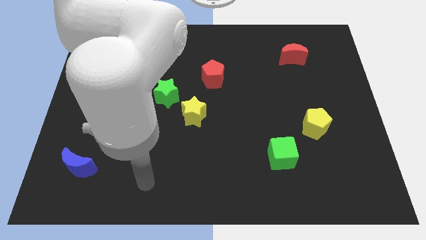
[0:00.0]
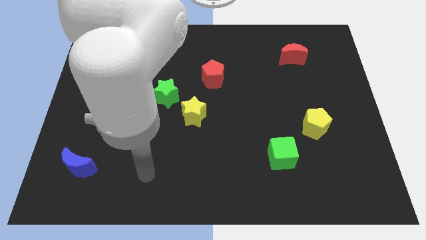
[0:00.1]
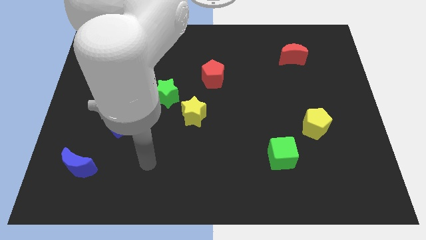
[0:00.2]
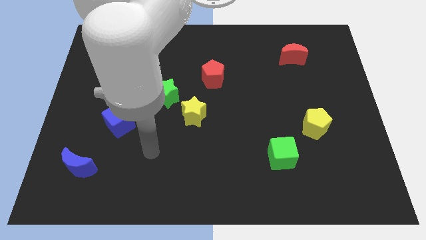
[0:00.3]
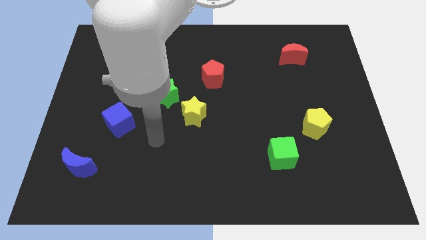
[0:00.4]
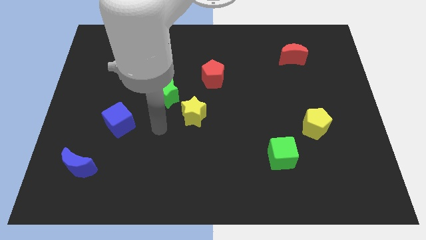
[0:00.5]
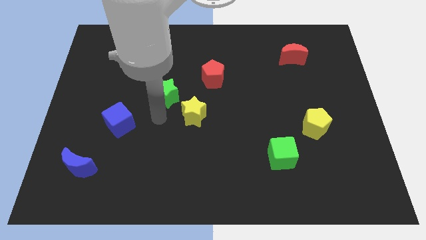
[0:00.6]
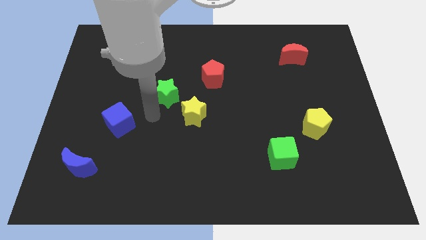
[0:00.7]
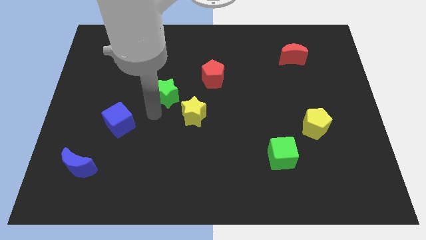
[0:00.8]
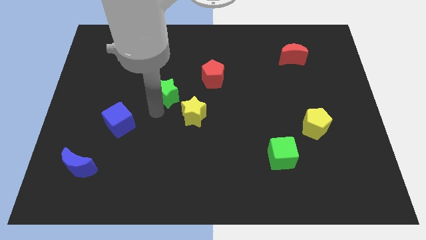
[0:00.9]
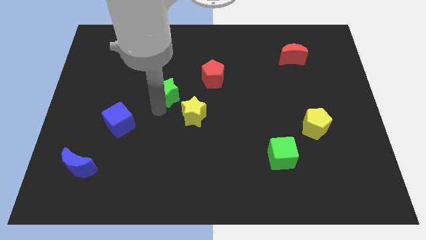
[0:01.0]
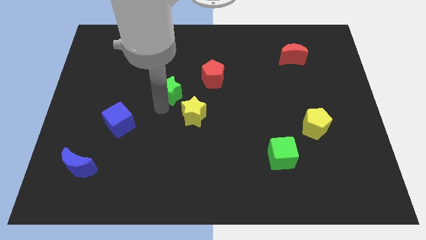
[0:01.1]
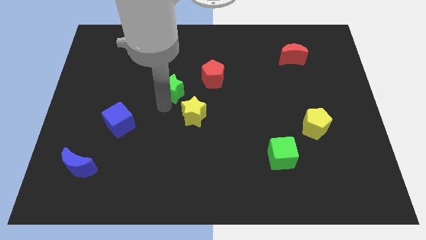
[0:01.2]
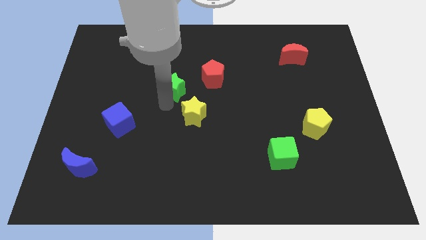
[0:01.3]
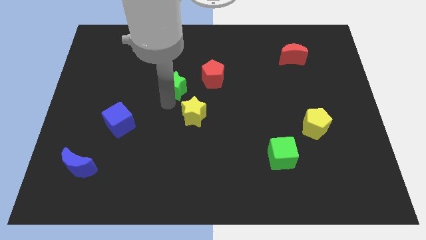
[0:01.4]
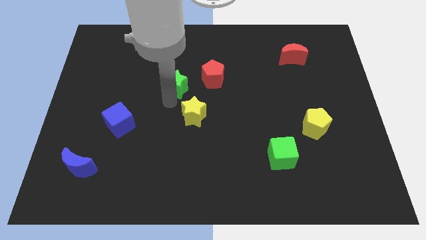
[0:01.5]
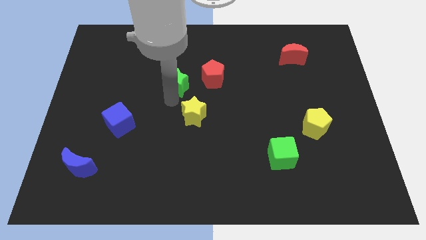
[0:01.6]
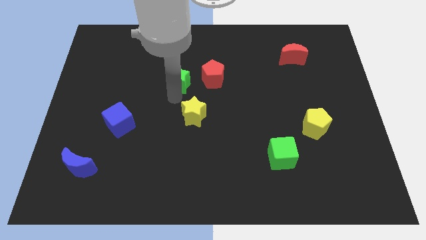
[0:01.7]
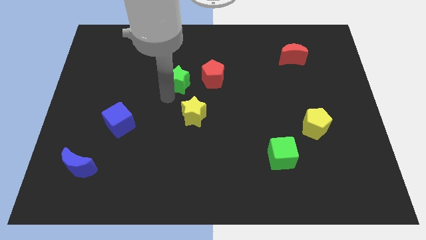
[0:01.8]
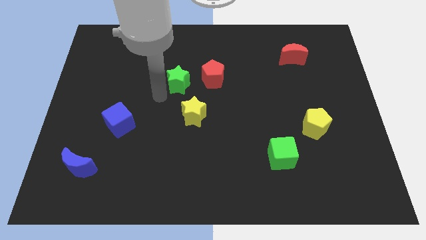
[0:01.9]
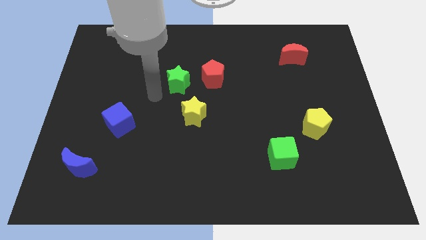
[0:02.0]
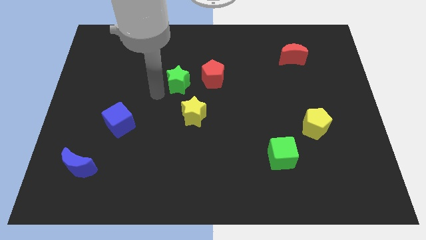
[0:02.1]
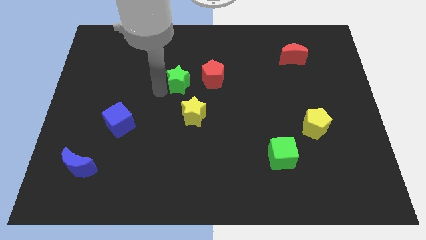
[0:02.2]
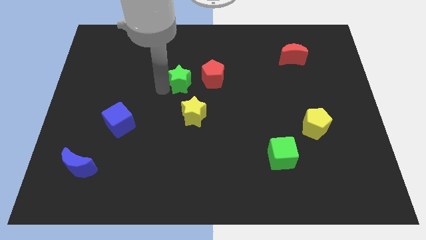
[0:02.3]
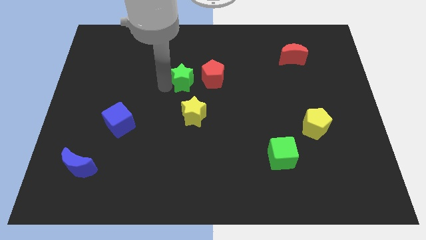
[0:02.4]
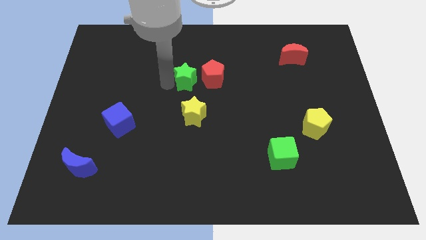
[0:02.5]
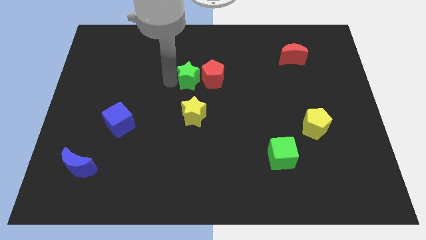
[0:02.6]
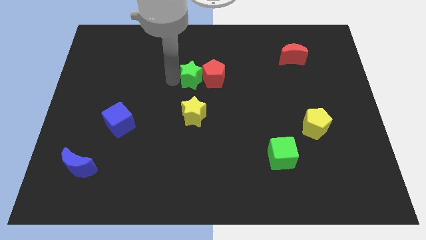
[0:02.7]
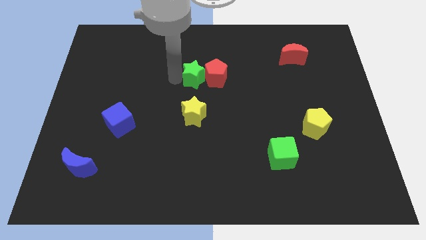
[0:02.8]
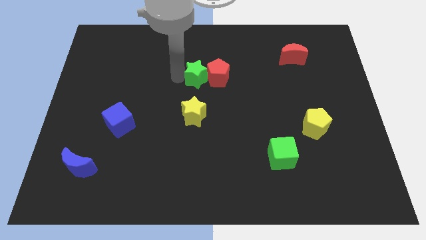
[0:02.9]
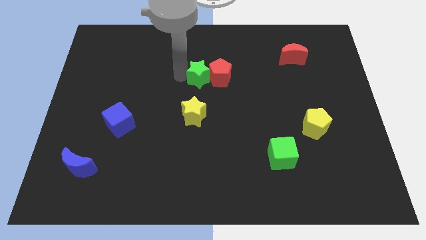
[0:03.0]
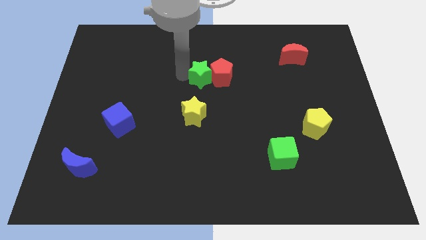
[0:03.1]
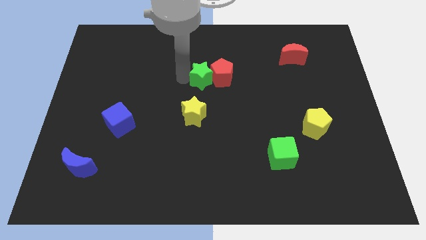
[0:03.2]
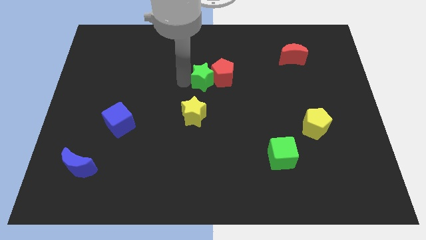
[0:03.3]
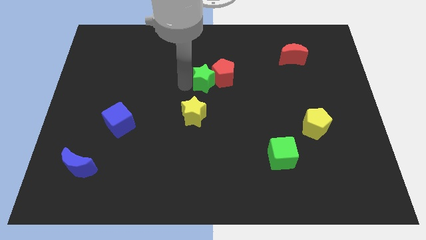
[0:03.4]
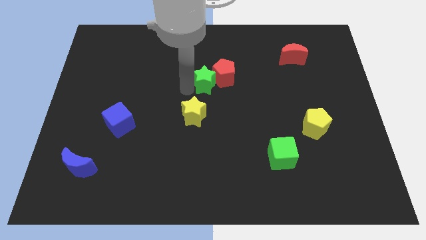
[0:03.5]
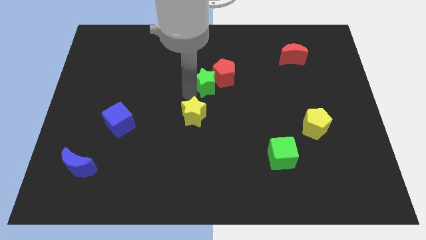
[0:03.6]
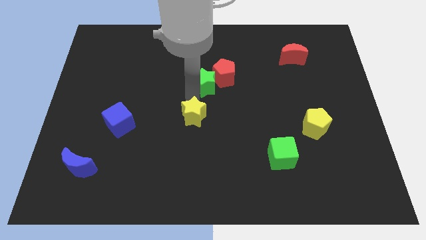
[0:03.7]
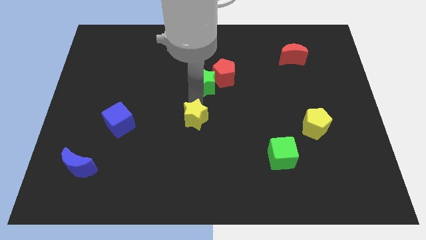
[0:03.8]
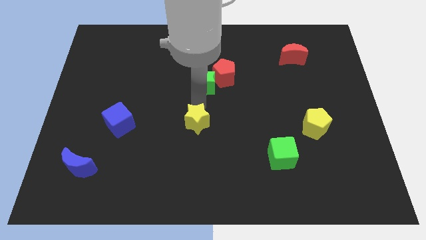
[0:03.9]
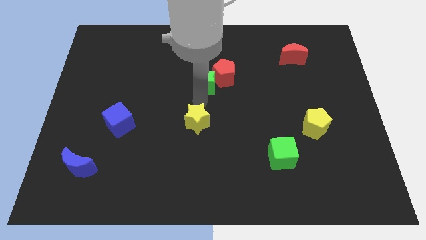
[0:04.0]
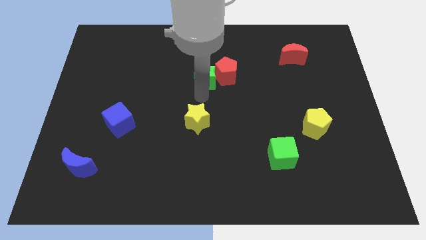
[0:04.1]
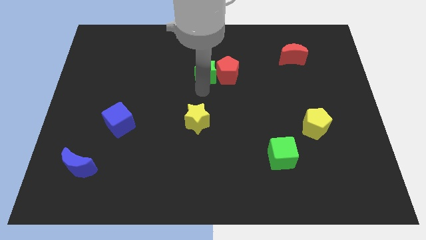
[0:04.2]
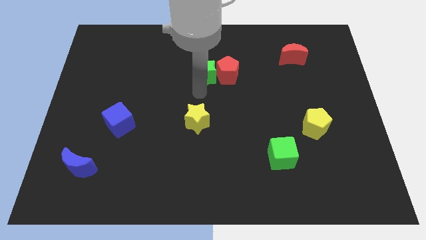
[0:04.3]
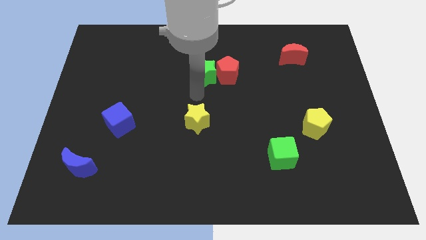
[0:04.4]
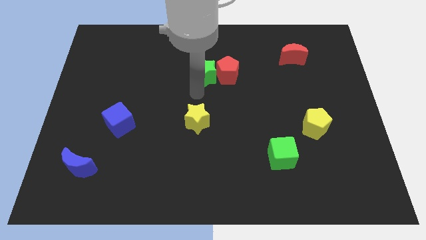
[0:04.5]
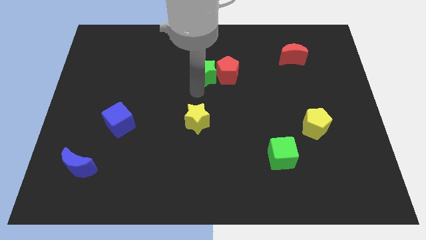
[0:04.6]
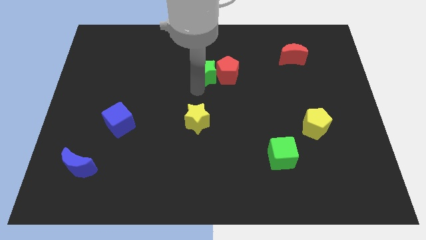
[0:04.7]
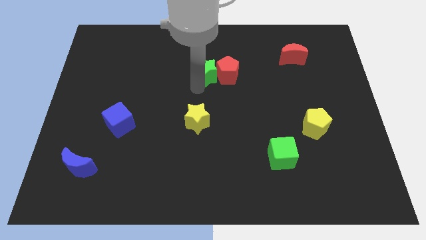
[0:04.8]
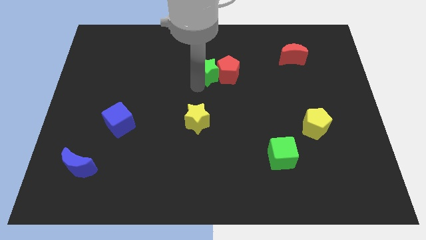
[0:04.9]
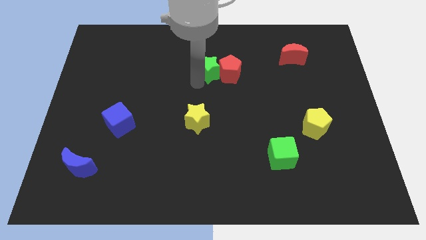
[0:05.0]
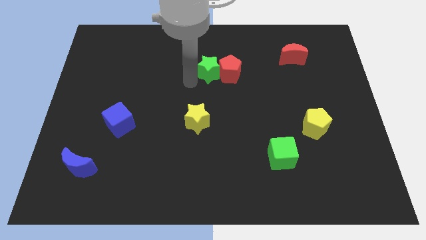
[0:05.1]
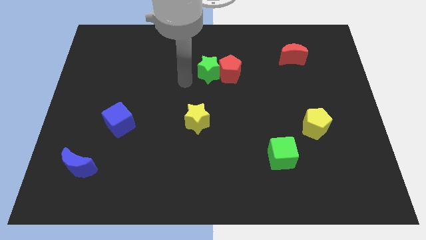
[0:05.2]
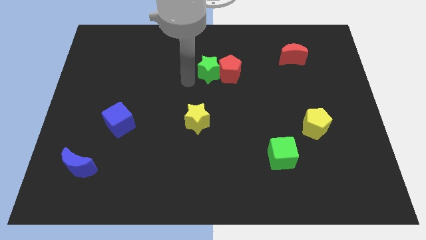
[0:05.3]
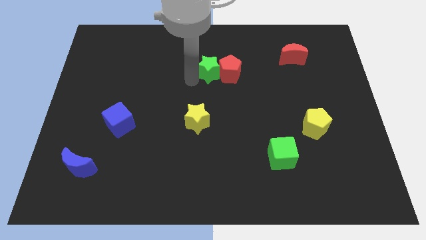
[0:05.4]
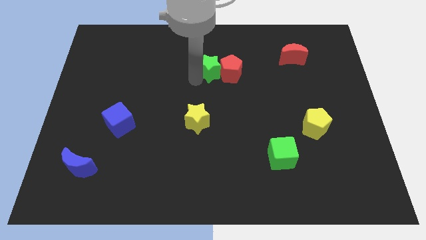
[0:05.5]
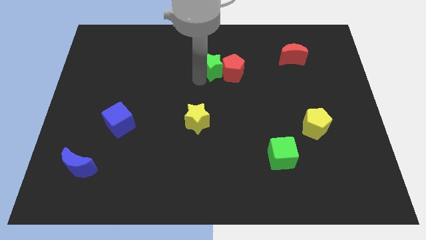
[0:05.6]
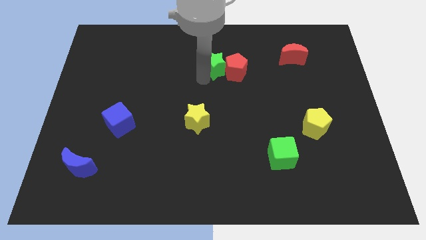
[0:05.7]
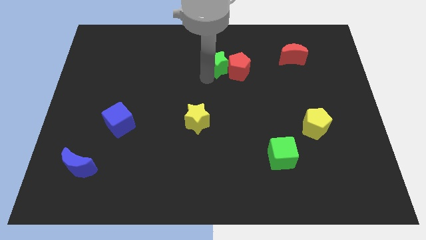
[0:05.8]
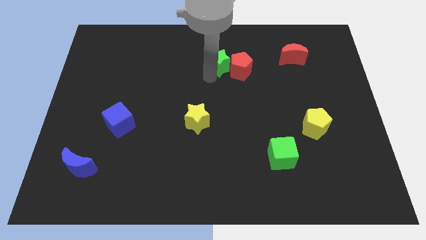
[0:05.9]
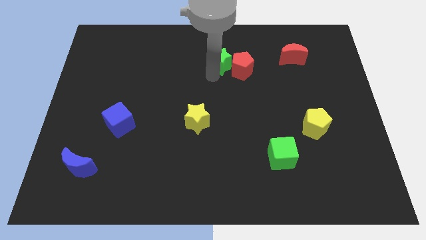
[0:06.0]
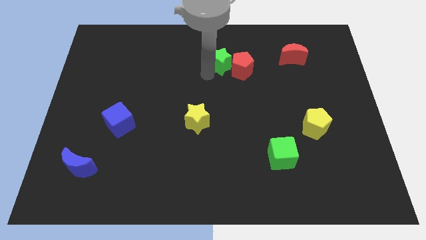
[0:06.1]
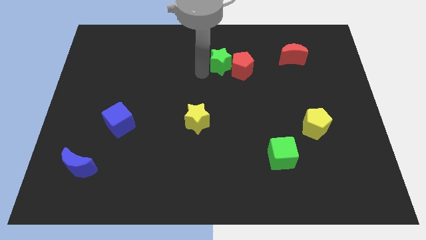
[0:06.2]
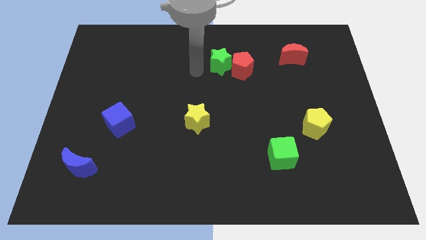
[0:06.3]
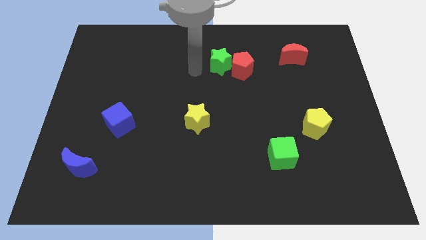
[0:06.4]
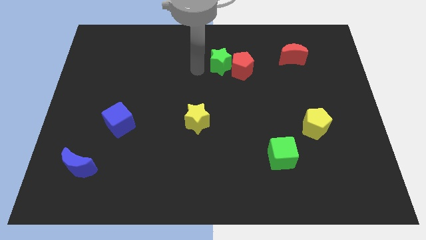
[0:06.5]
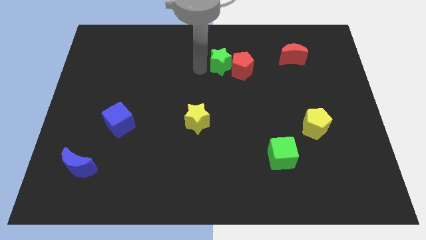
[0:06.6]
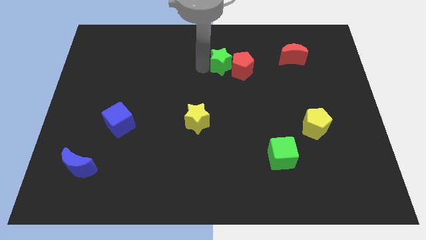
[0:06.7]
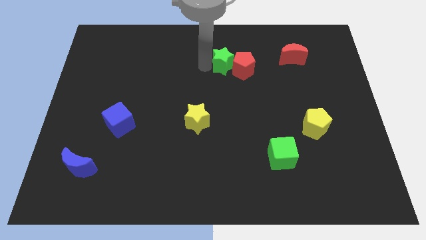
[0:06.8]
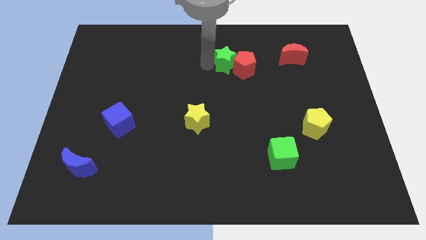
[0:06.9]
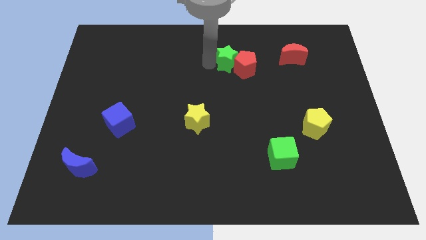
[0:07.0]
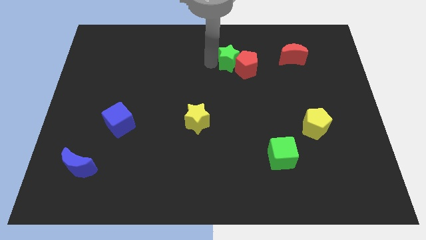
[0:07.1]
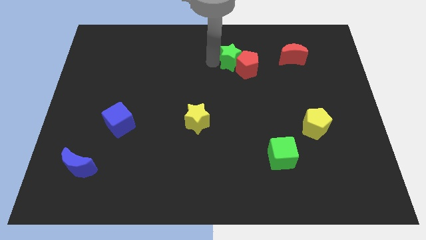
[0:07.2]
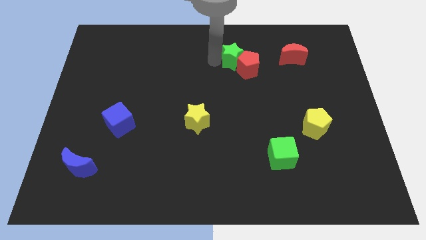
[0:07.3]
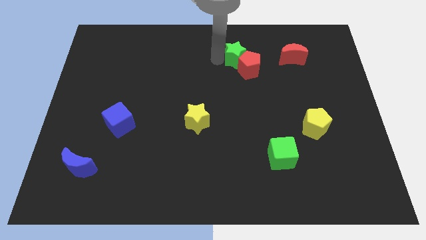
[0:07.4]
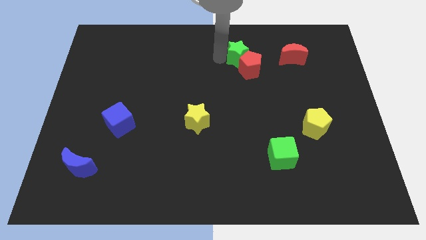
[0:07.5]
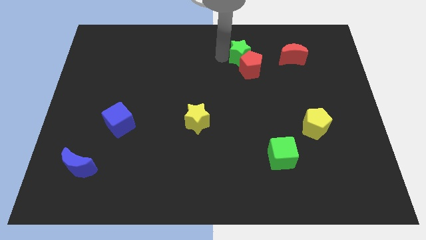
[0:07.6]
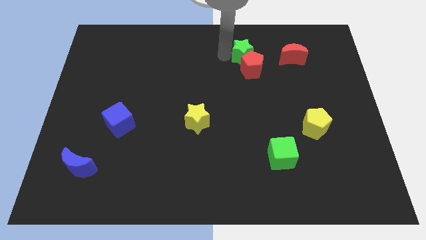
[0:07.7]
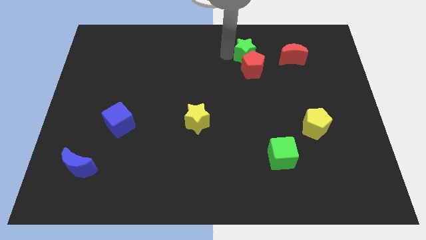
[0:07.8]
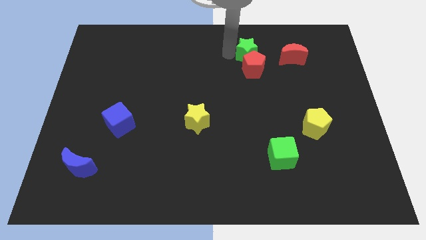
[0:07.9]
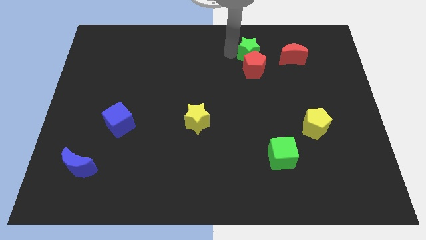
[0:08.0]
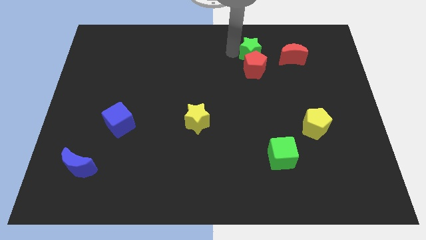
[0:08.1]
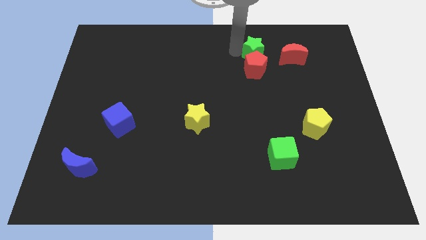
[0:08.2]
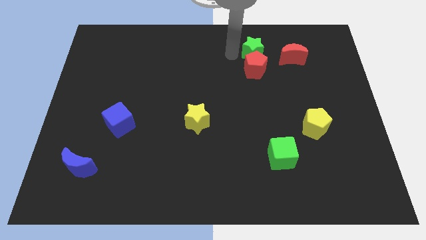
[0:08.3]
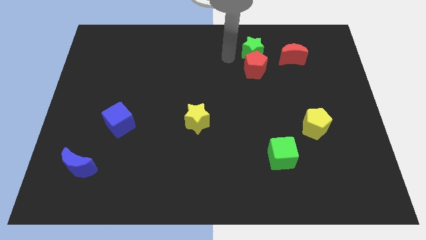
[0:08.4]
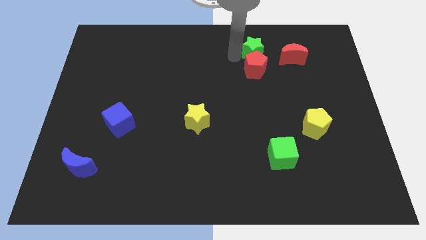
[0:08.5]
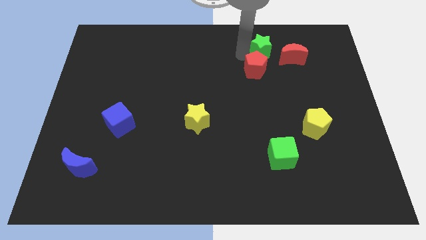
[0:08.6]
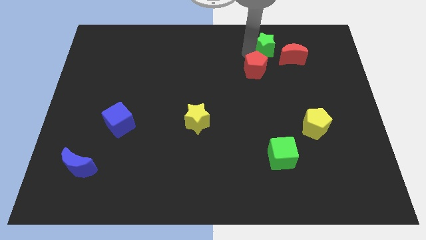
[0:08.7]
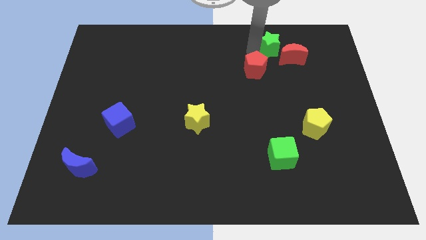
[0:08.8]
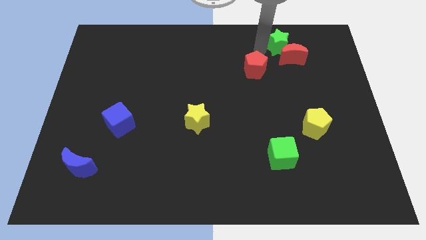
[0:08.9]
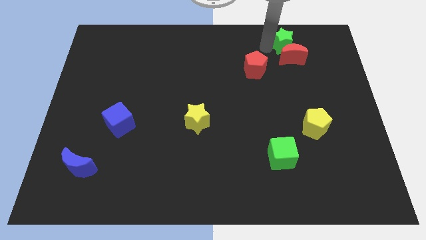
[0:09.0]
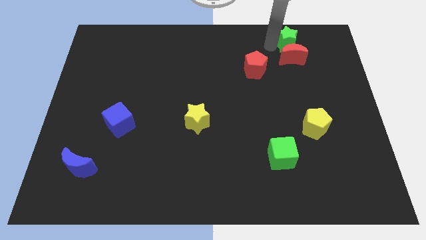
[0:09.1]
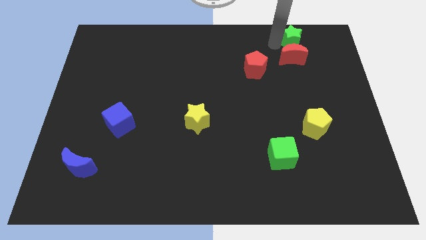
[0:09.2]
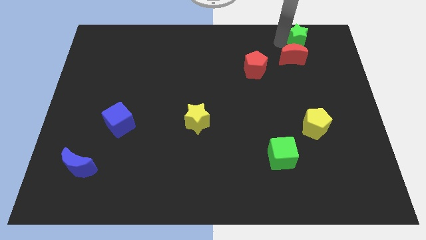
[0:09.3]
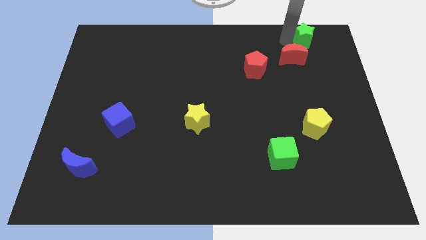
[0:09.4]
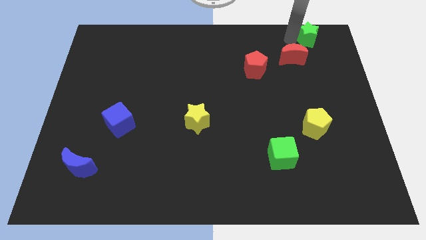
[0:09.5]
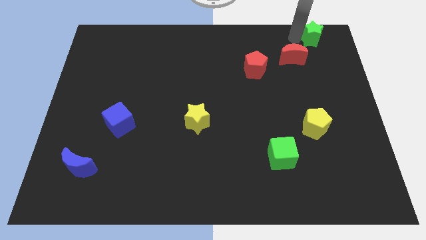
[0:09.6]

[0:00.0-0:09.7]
put the green star to the upper right corner
